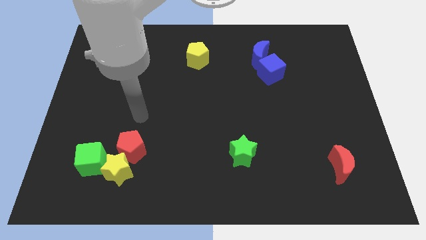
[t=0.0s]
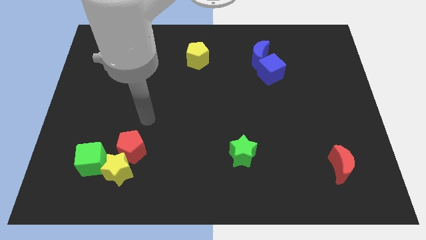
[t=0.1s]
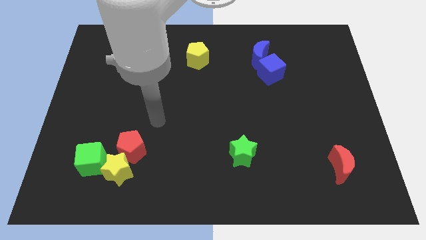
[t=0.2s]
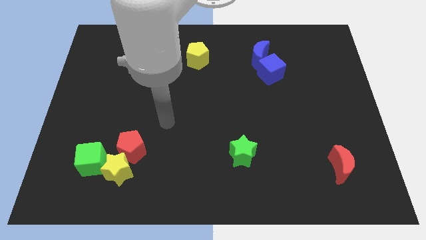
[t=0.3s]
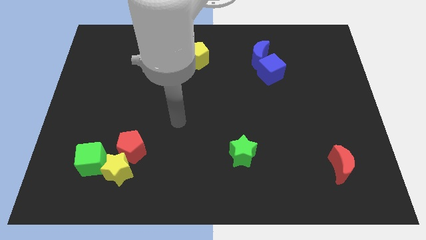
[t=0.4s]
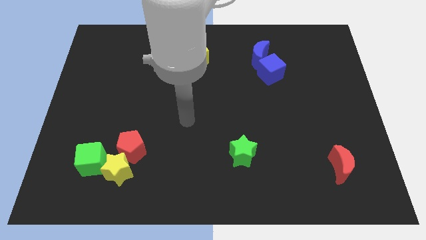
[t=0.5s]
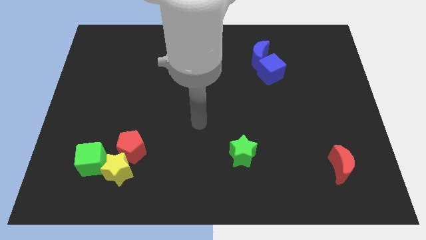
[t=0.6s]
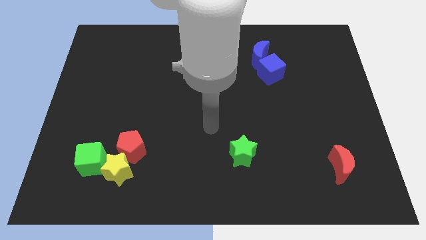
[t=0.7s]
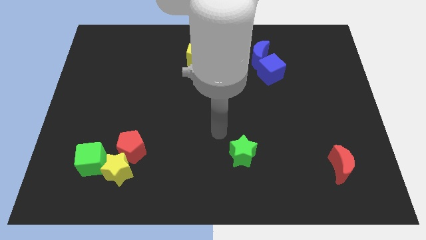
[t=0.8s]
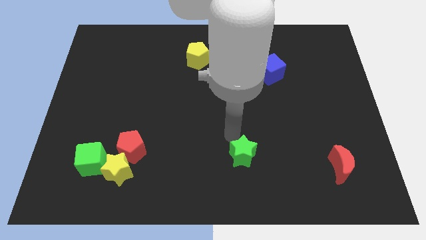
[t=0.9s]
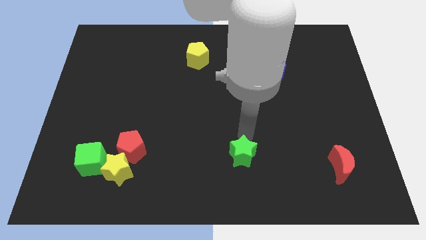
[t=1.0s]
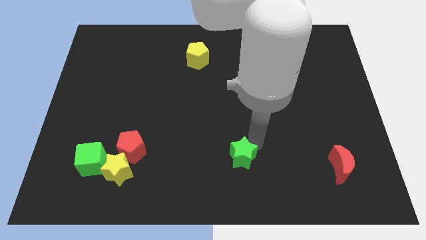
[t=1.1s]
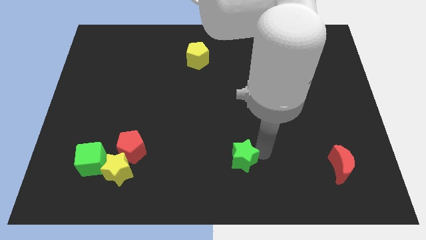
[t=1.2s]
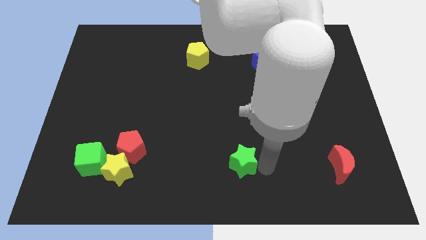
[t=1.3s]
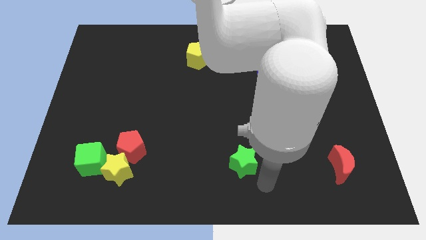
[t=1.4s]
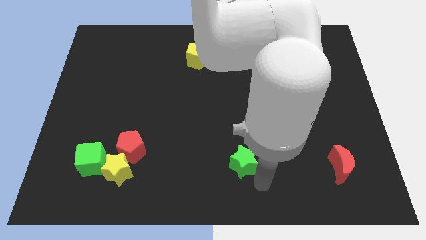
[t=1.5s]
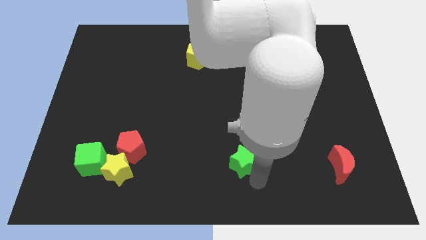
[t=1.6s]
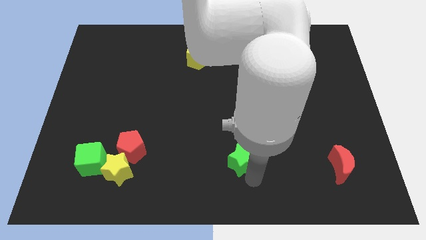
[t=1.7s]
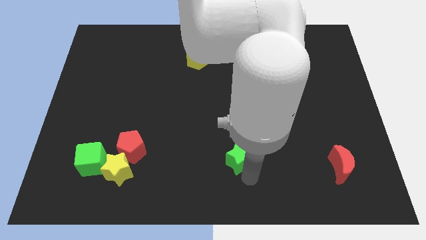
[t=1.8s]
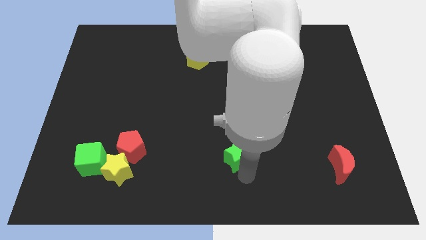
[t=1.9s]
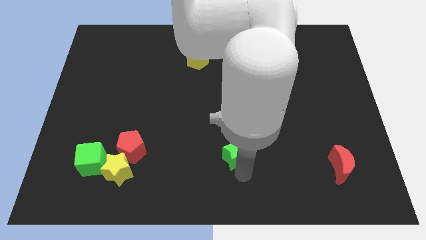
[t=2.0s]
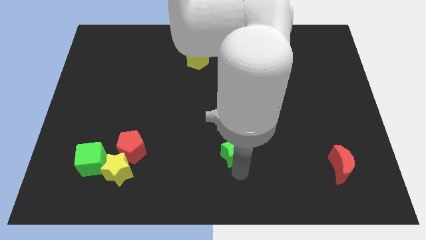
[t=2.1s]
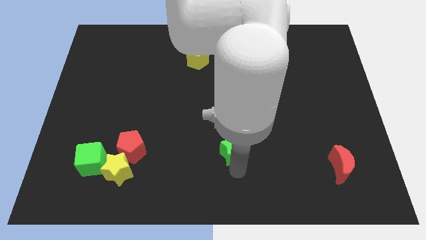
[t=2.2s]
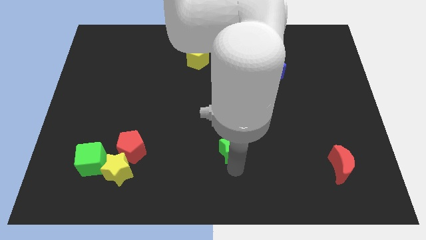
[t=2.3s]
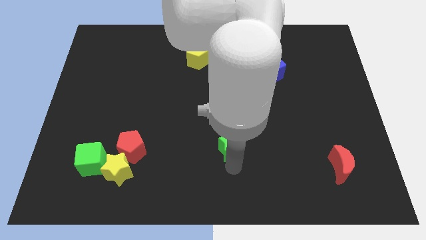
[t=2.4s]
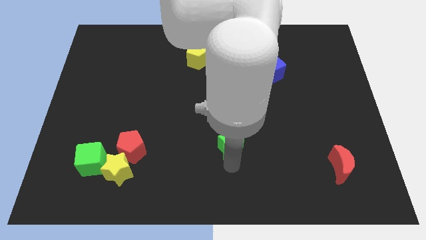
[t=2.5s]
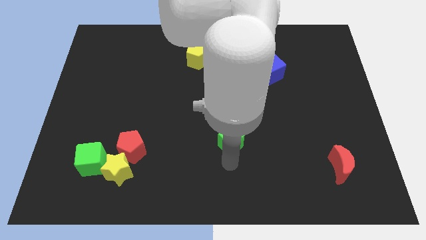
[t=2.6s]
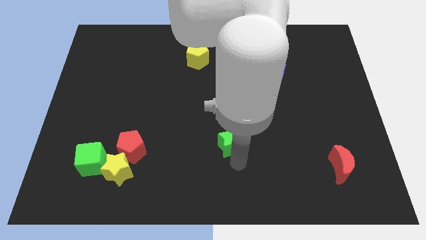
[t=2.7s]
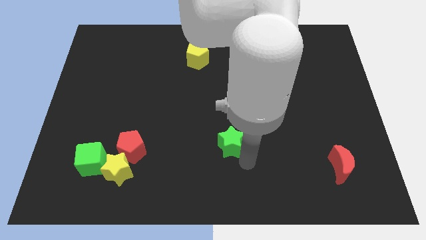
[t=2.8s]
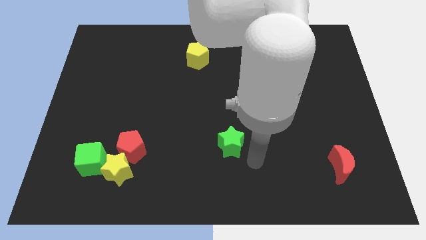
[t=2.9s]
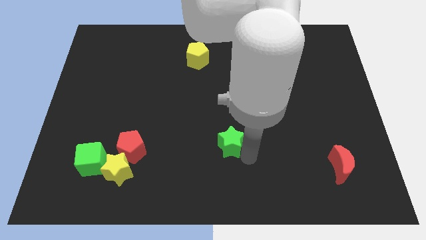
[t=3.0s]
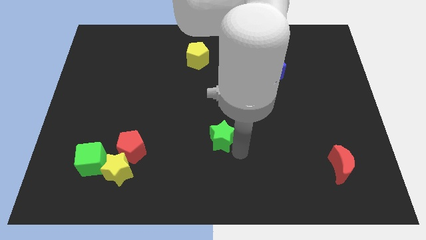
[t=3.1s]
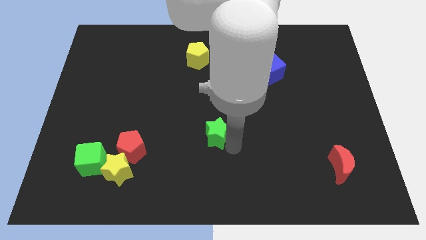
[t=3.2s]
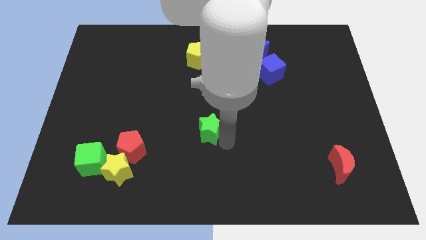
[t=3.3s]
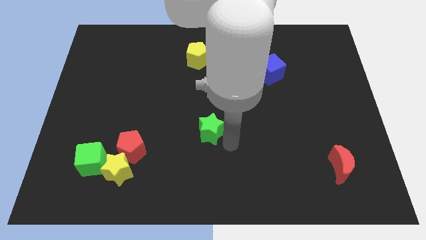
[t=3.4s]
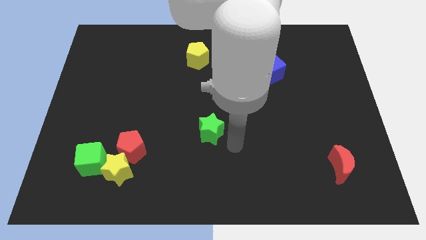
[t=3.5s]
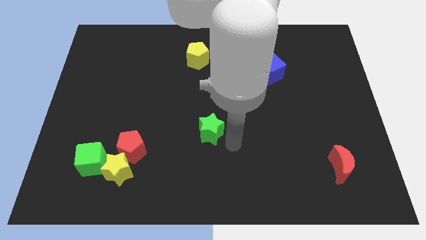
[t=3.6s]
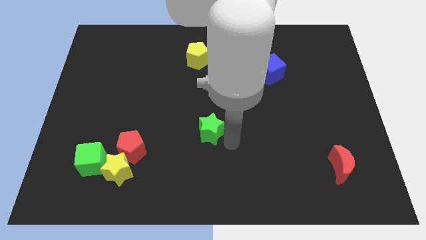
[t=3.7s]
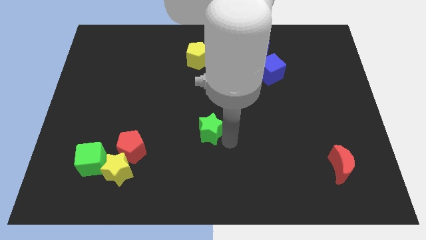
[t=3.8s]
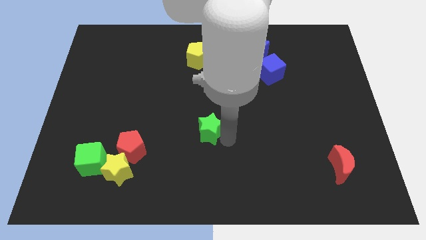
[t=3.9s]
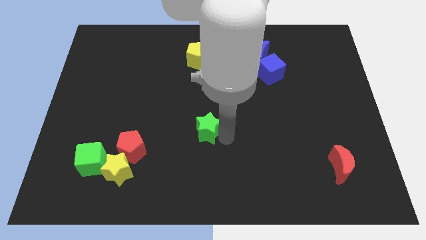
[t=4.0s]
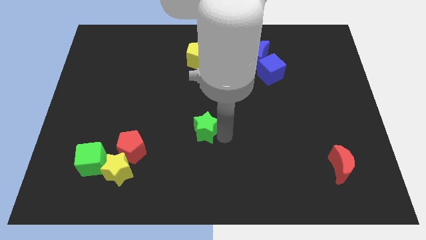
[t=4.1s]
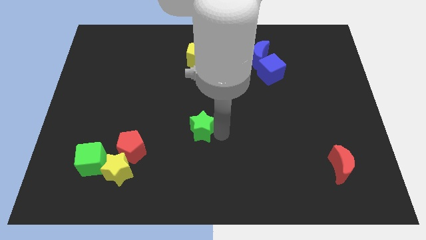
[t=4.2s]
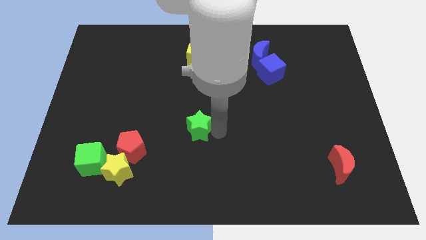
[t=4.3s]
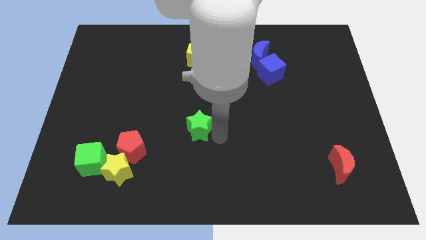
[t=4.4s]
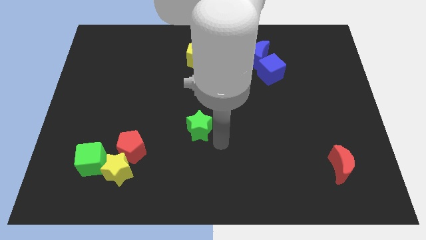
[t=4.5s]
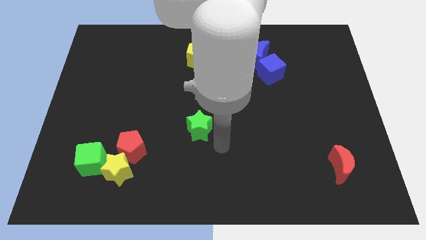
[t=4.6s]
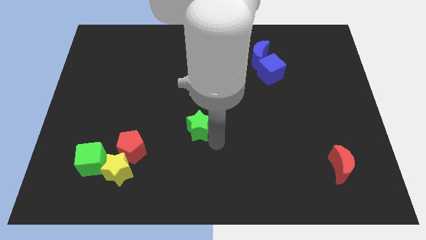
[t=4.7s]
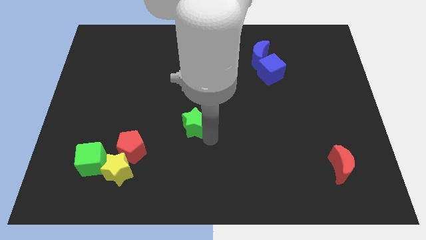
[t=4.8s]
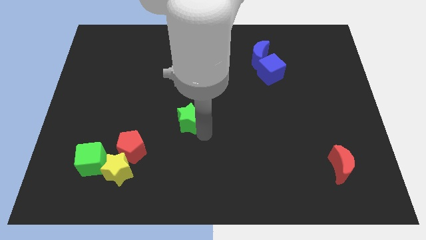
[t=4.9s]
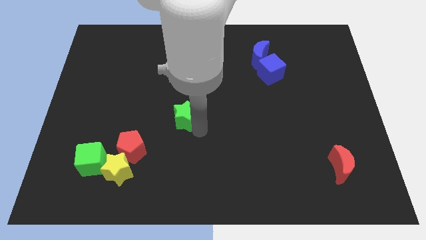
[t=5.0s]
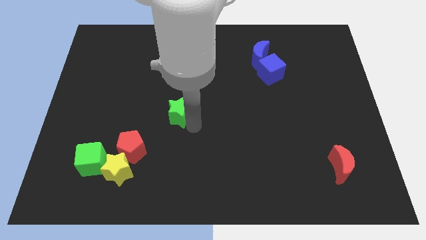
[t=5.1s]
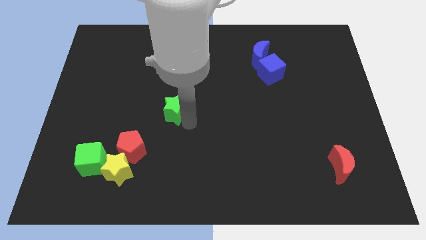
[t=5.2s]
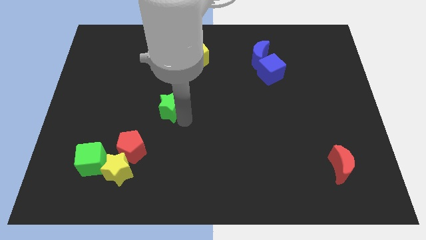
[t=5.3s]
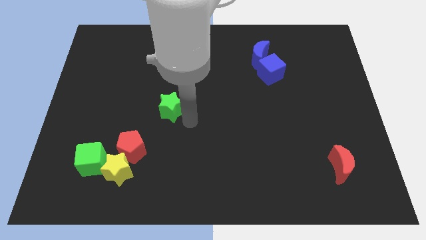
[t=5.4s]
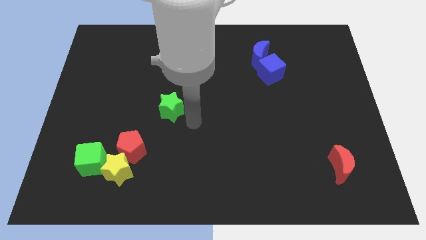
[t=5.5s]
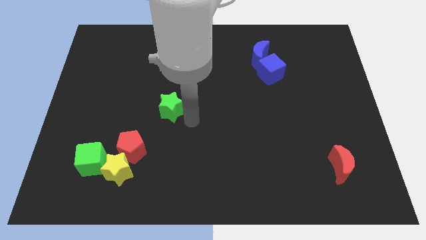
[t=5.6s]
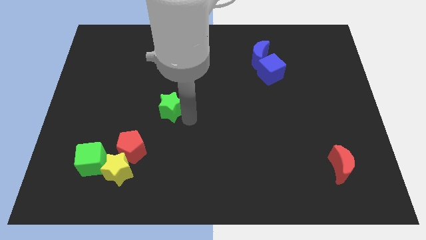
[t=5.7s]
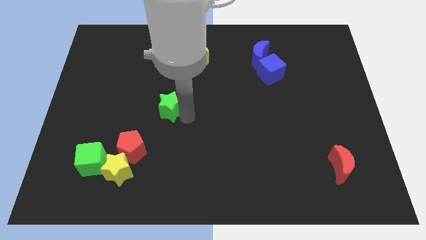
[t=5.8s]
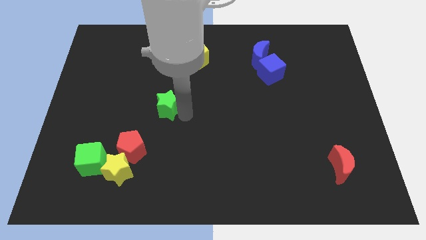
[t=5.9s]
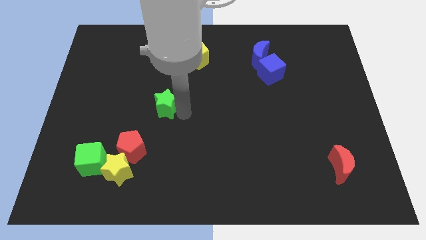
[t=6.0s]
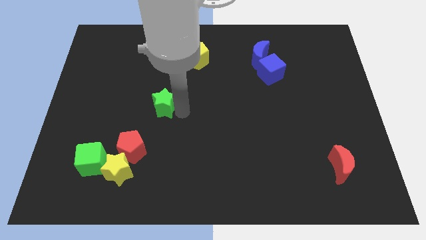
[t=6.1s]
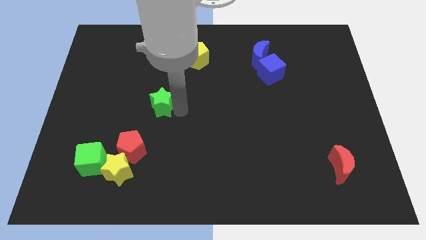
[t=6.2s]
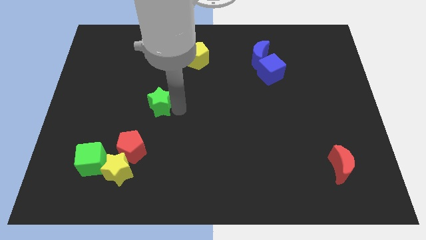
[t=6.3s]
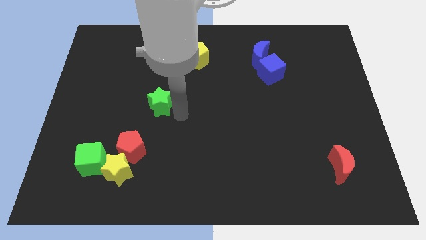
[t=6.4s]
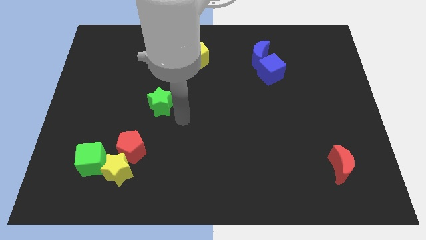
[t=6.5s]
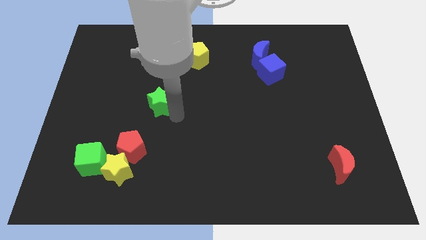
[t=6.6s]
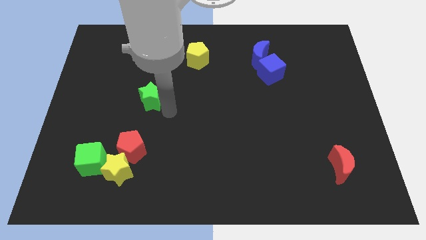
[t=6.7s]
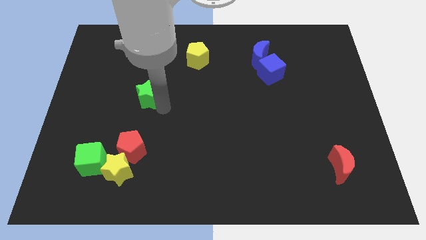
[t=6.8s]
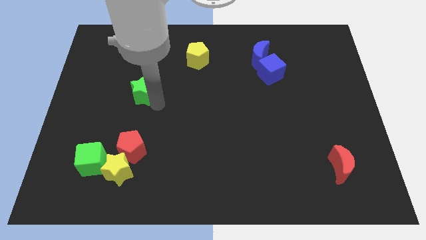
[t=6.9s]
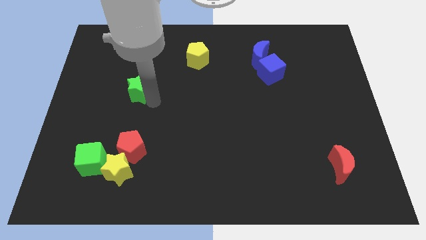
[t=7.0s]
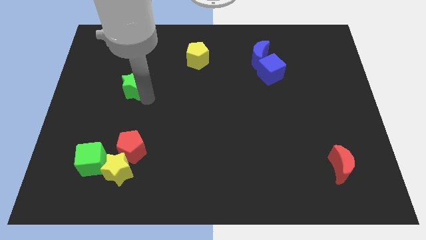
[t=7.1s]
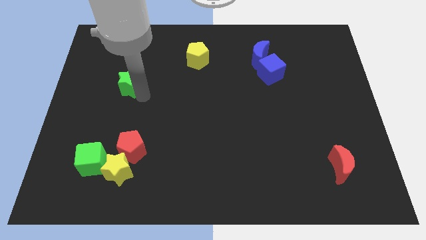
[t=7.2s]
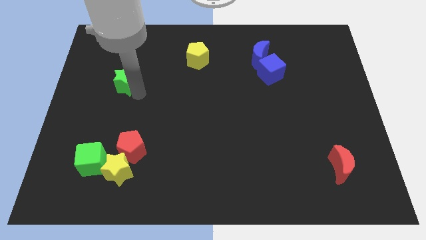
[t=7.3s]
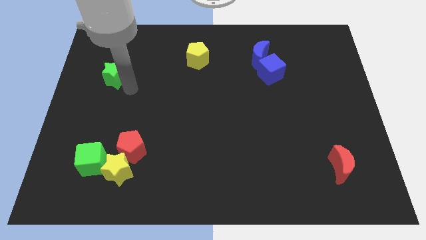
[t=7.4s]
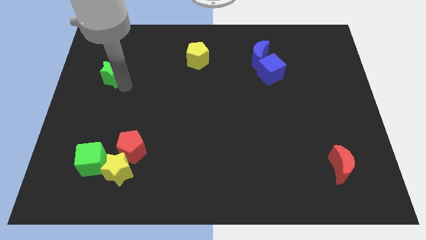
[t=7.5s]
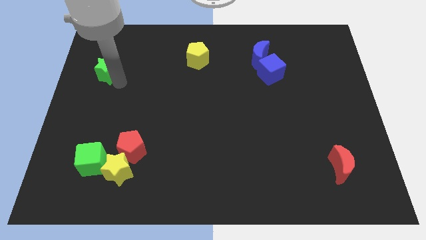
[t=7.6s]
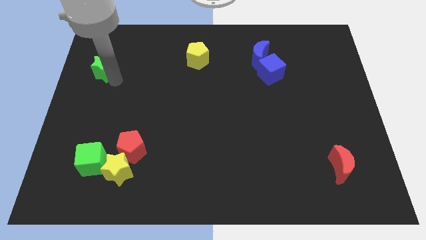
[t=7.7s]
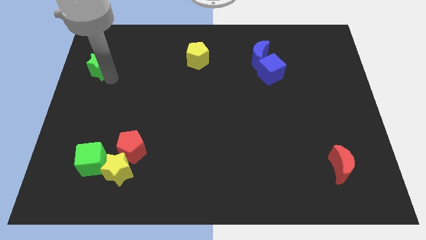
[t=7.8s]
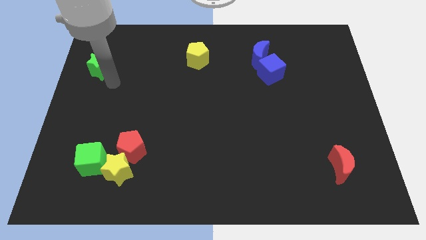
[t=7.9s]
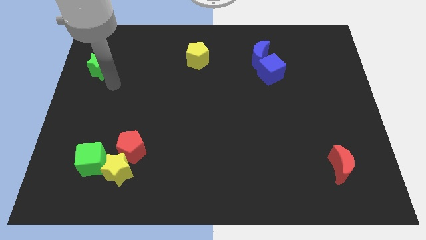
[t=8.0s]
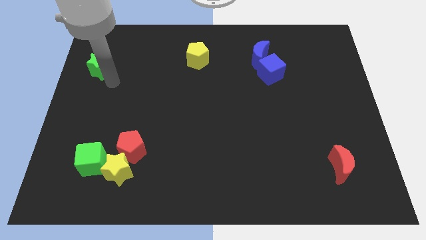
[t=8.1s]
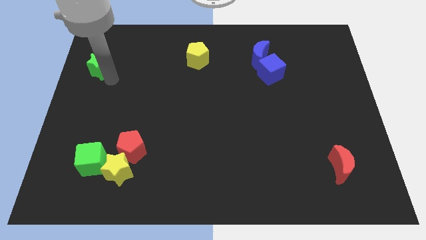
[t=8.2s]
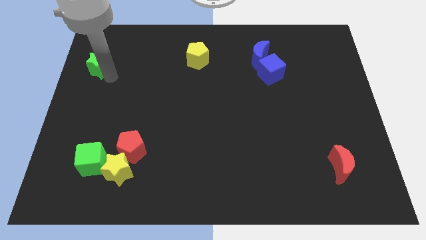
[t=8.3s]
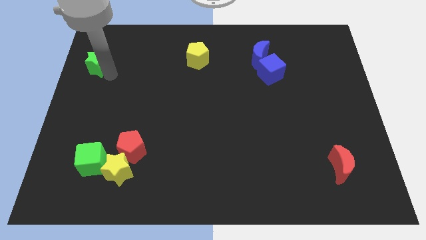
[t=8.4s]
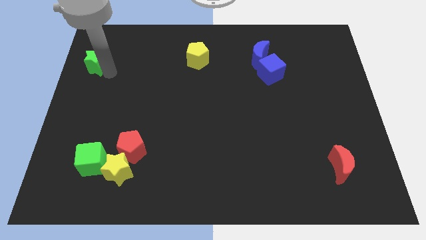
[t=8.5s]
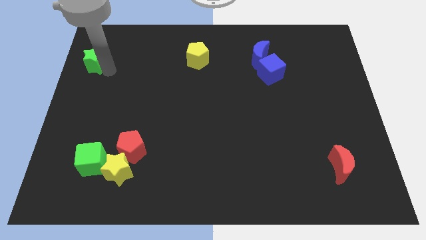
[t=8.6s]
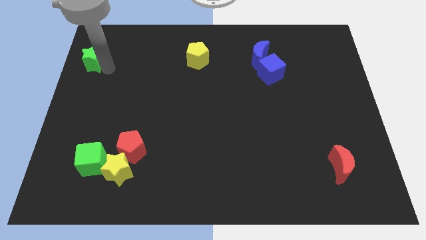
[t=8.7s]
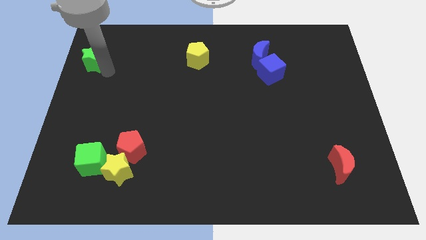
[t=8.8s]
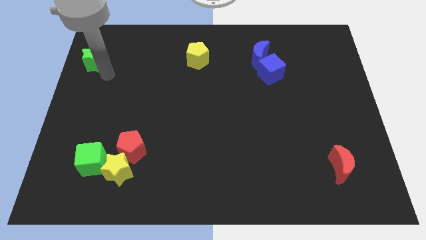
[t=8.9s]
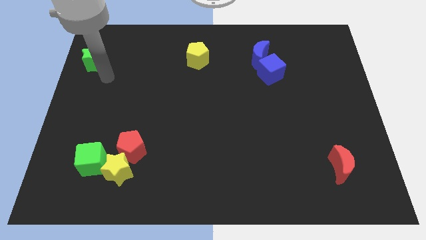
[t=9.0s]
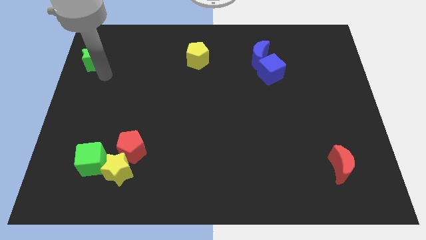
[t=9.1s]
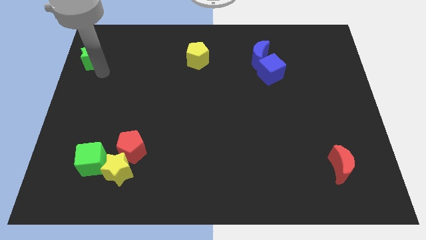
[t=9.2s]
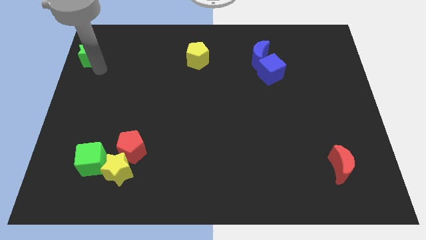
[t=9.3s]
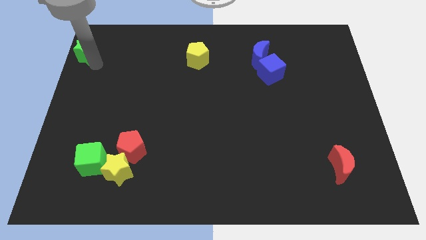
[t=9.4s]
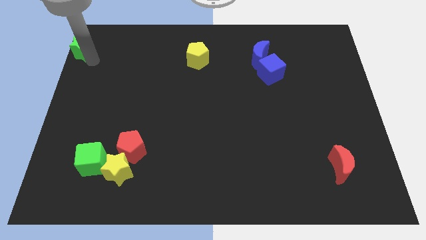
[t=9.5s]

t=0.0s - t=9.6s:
move the green star to the top left corner
